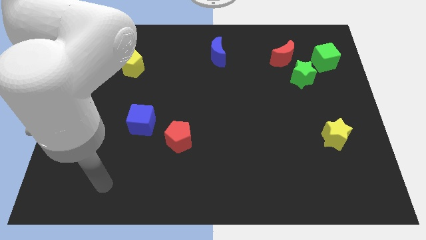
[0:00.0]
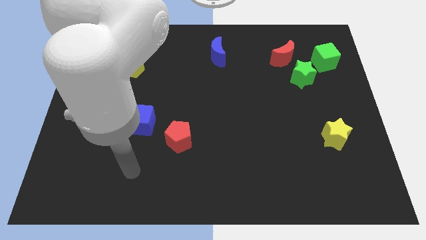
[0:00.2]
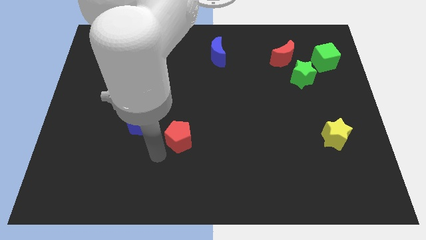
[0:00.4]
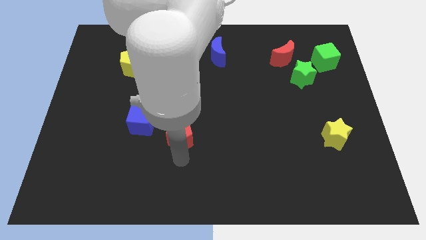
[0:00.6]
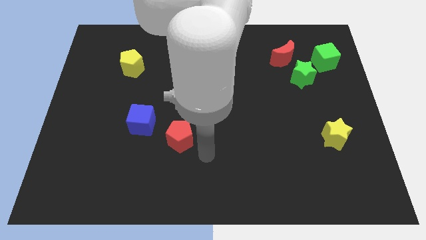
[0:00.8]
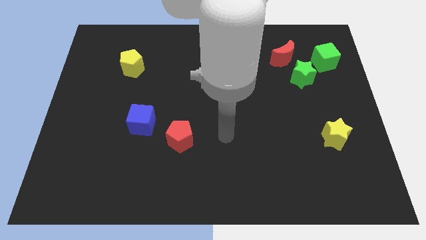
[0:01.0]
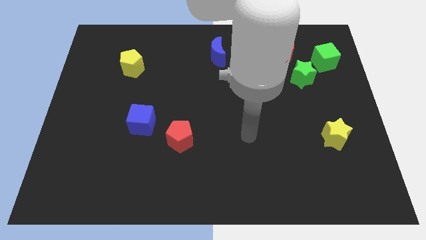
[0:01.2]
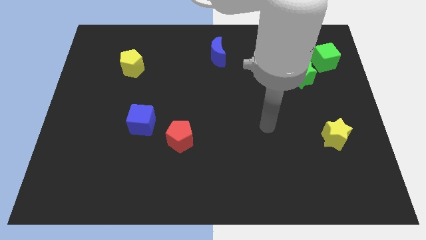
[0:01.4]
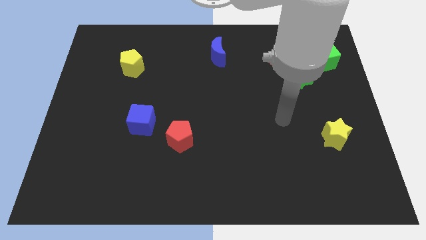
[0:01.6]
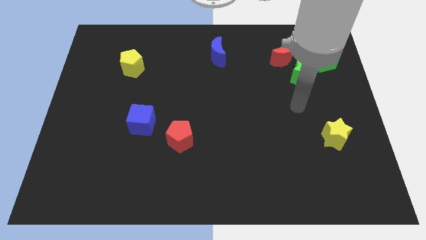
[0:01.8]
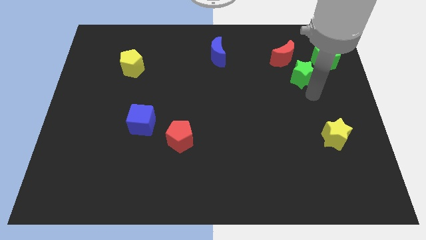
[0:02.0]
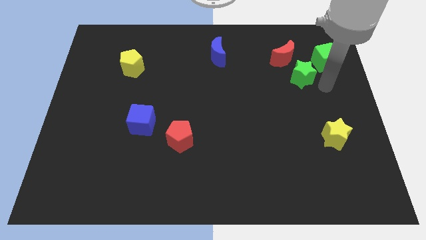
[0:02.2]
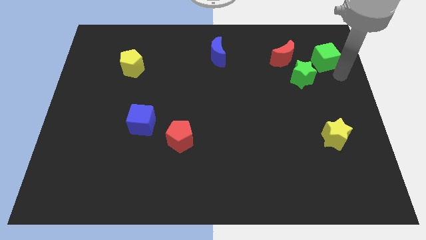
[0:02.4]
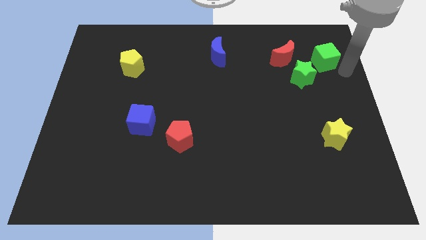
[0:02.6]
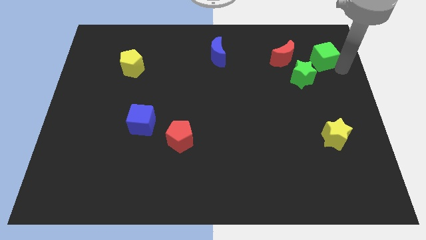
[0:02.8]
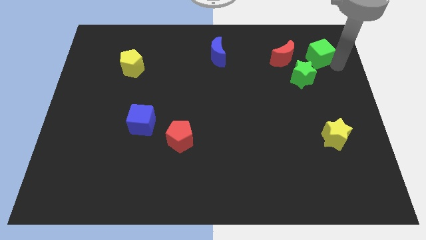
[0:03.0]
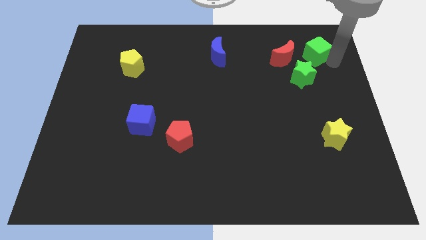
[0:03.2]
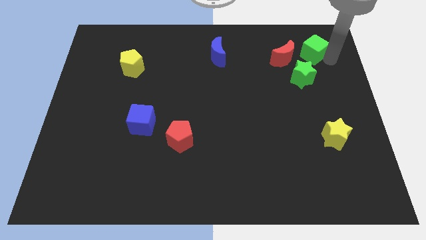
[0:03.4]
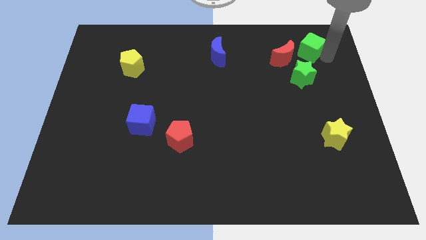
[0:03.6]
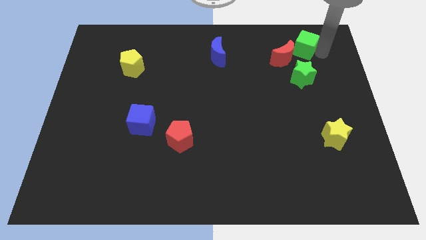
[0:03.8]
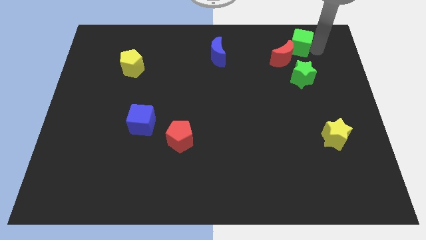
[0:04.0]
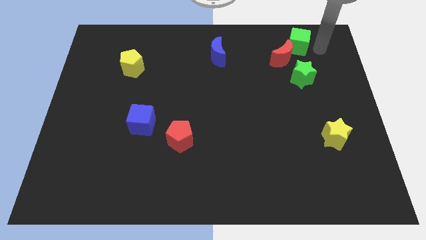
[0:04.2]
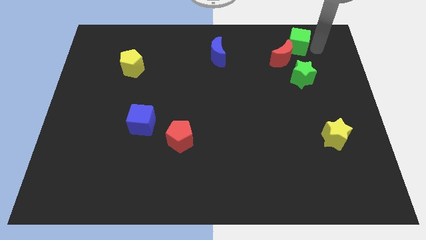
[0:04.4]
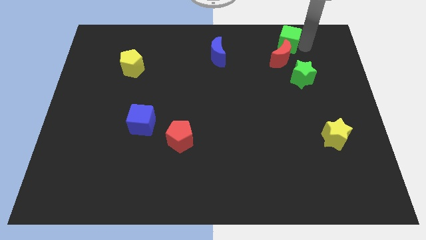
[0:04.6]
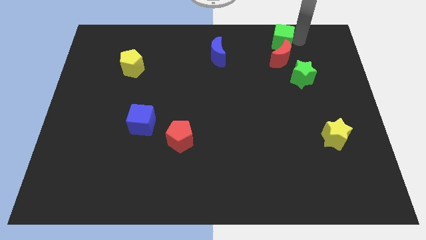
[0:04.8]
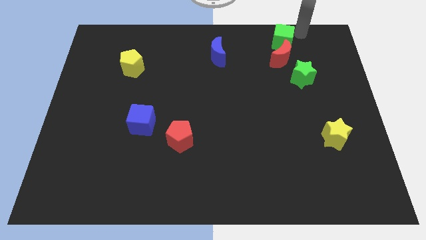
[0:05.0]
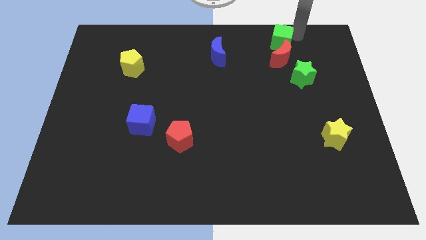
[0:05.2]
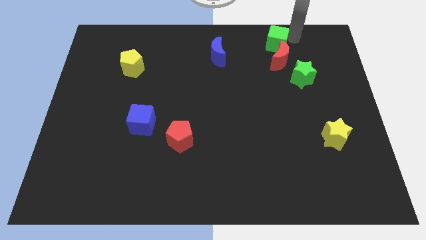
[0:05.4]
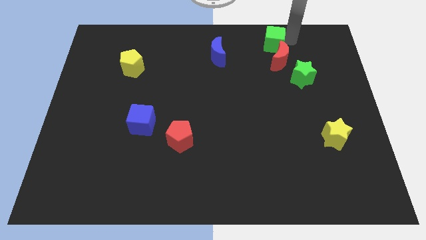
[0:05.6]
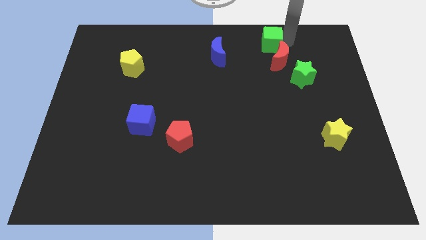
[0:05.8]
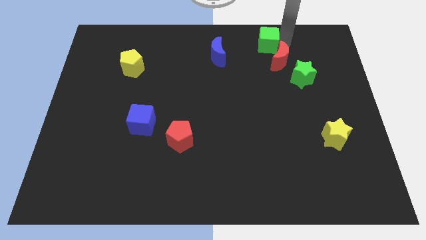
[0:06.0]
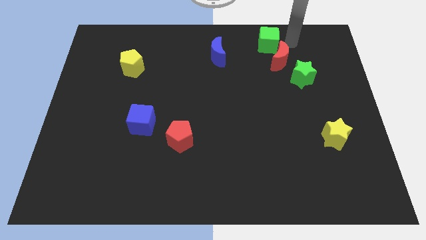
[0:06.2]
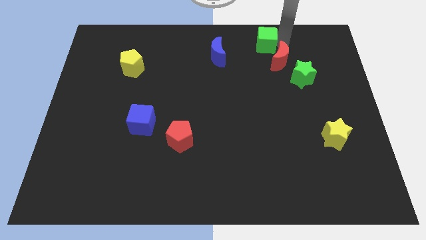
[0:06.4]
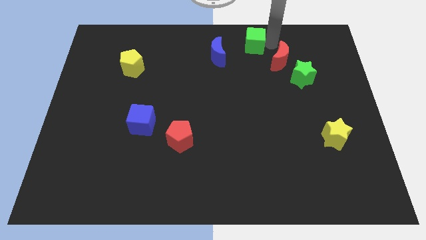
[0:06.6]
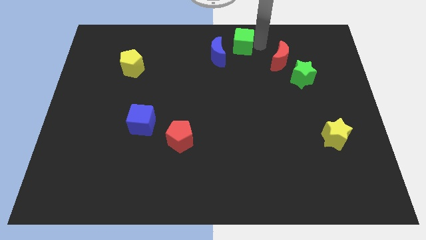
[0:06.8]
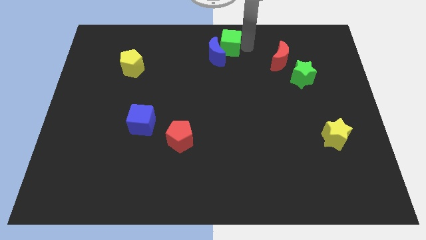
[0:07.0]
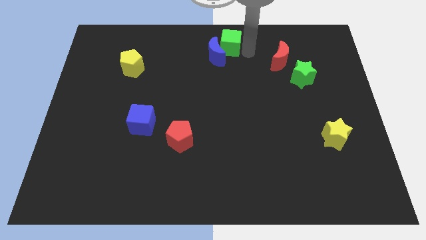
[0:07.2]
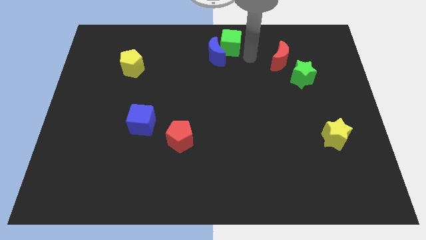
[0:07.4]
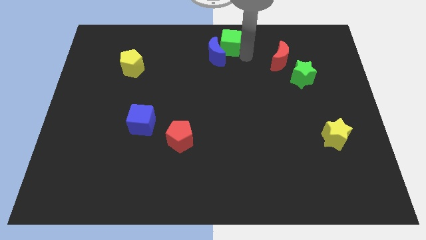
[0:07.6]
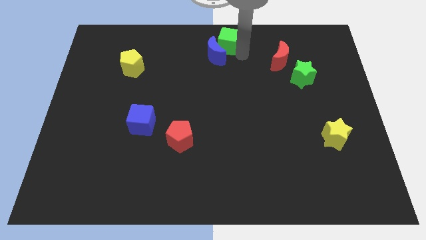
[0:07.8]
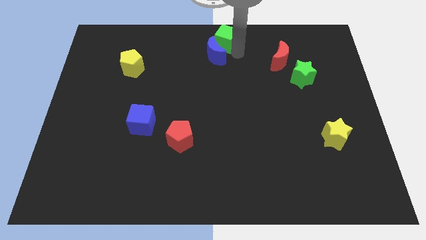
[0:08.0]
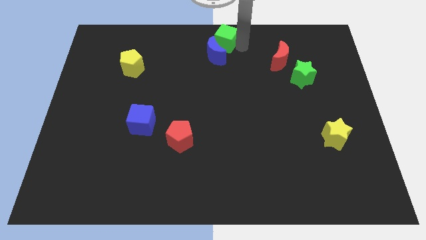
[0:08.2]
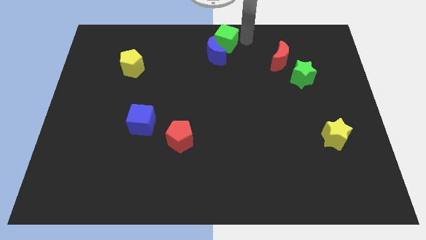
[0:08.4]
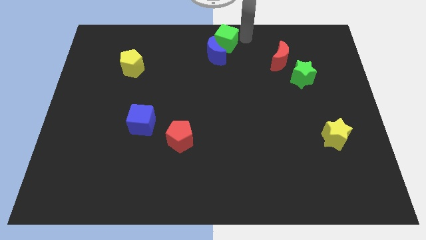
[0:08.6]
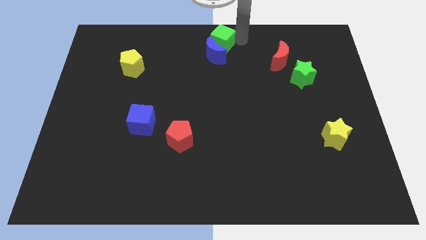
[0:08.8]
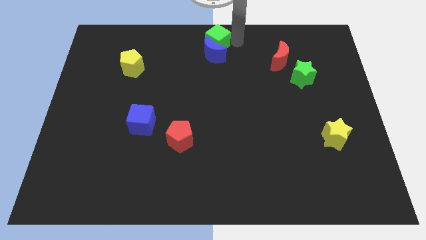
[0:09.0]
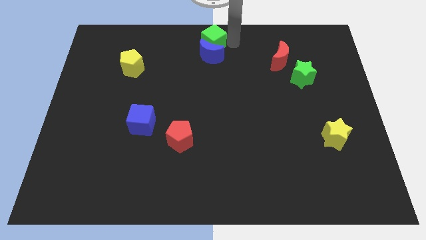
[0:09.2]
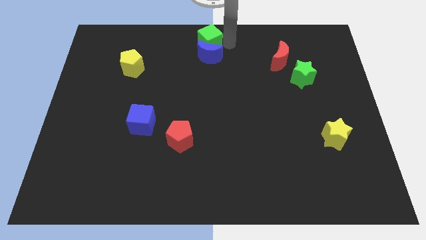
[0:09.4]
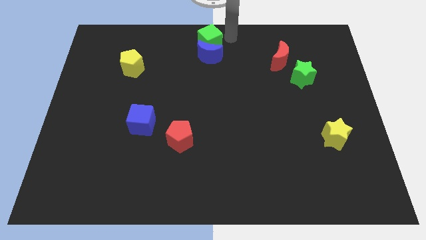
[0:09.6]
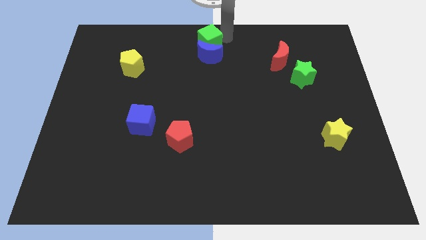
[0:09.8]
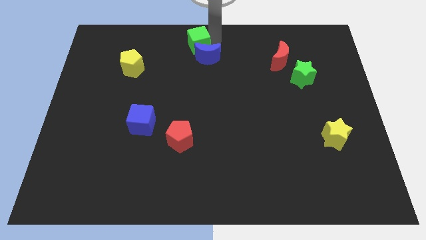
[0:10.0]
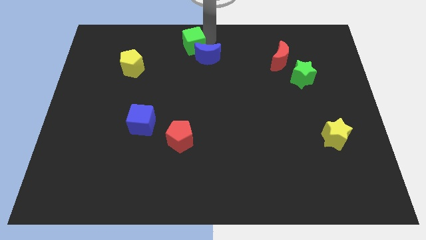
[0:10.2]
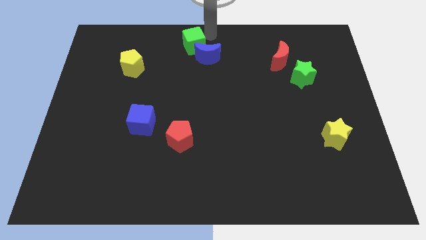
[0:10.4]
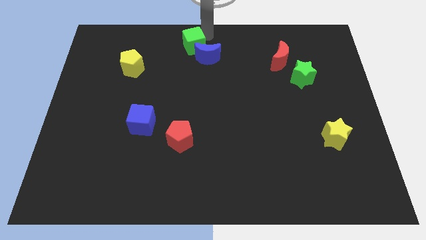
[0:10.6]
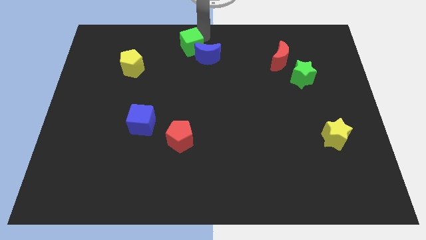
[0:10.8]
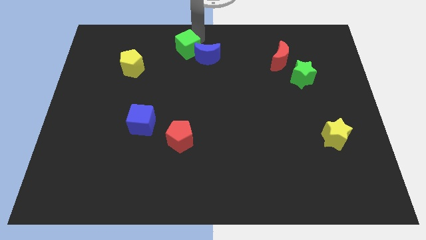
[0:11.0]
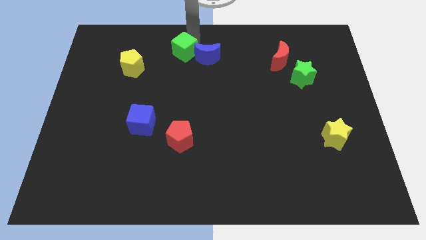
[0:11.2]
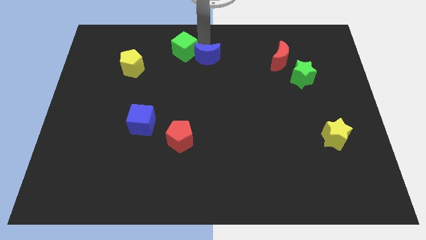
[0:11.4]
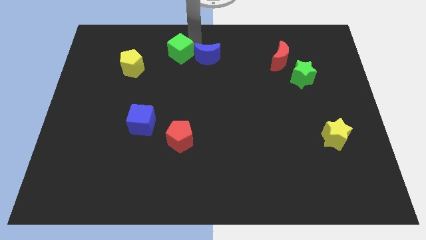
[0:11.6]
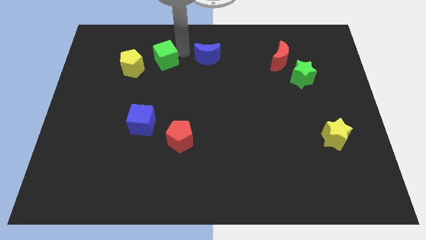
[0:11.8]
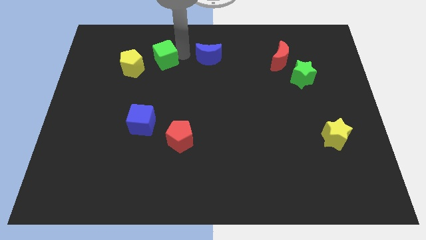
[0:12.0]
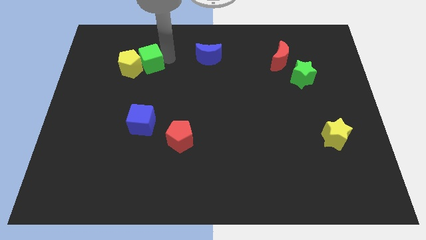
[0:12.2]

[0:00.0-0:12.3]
move the green cube close to the yellow pentagon

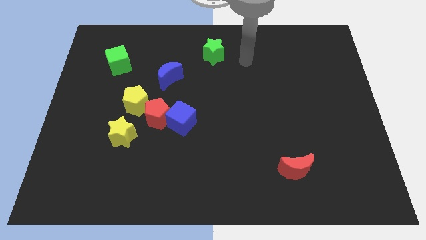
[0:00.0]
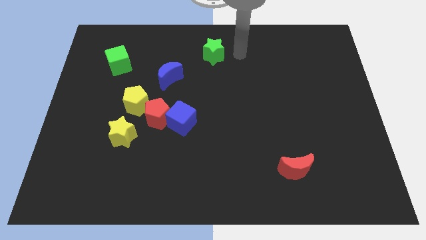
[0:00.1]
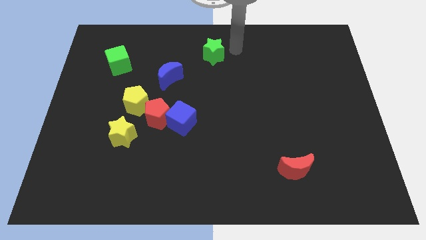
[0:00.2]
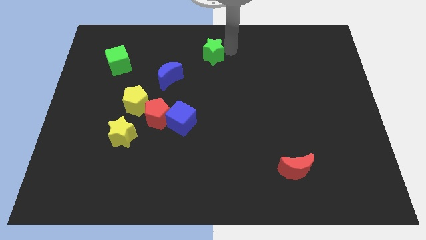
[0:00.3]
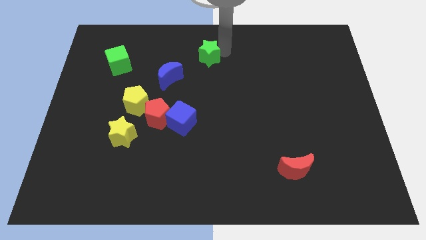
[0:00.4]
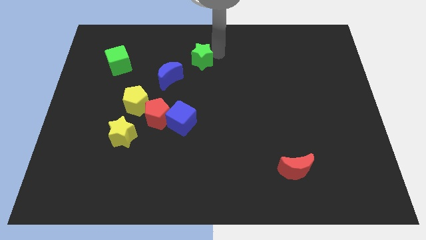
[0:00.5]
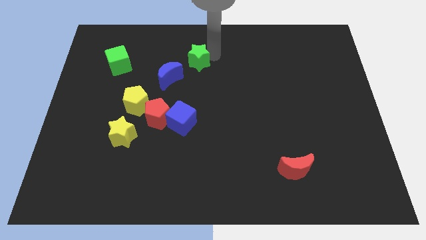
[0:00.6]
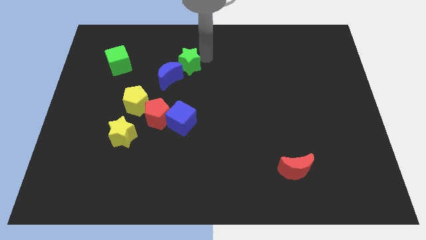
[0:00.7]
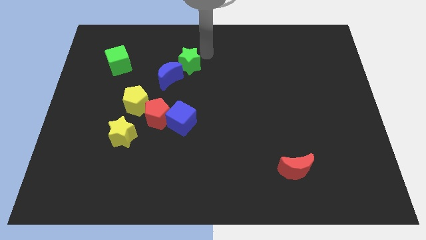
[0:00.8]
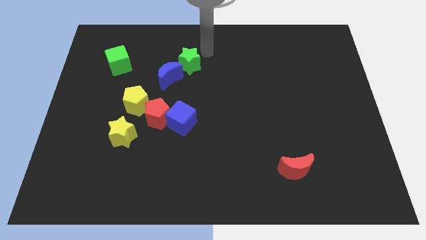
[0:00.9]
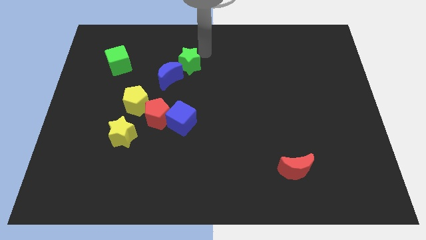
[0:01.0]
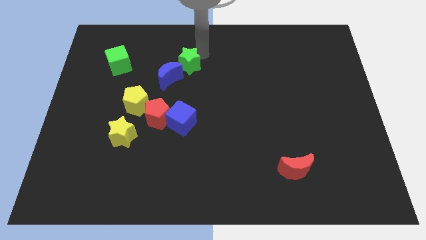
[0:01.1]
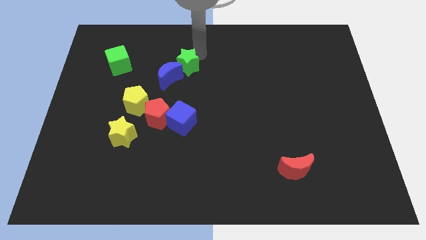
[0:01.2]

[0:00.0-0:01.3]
put the green star next to the blue moon
